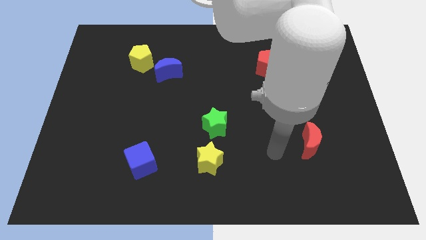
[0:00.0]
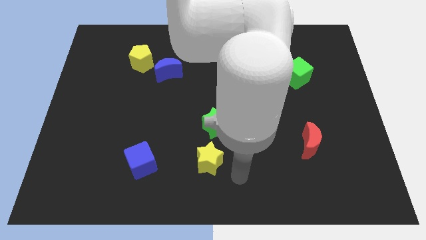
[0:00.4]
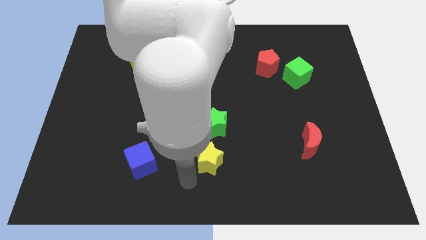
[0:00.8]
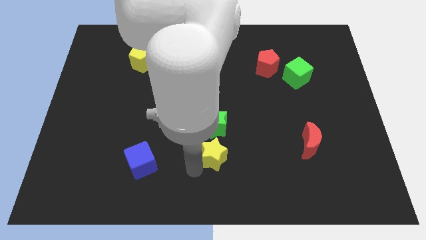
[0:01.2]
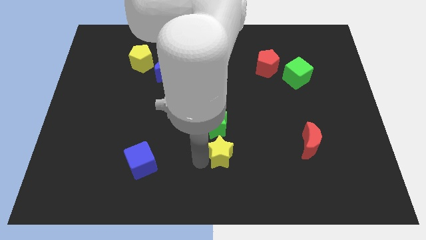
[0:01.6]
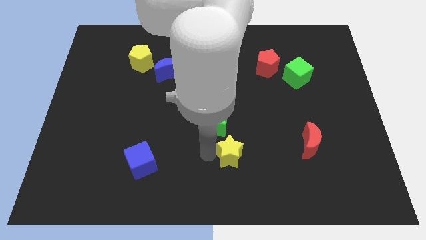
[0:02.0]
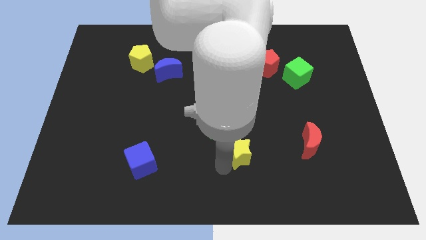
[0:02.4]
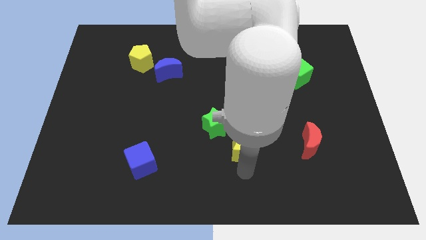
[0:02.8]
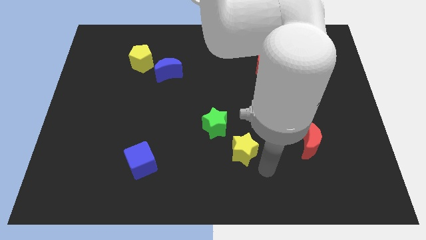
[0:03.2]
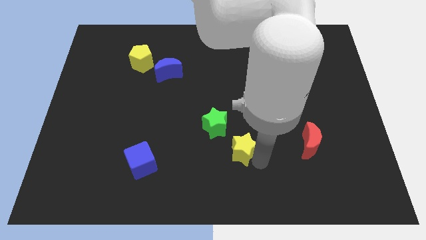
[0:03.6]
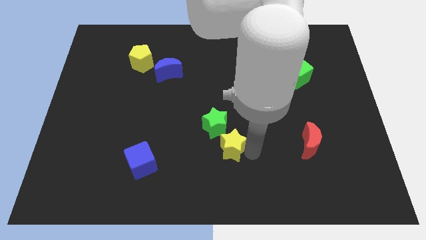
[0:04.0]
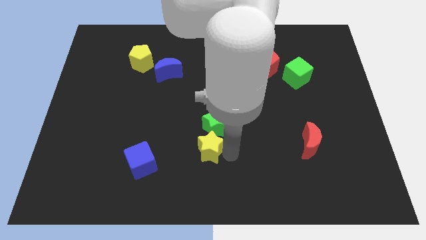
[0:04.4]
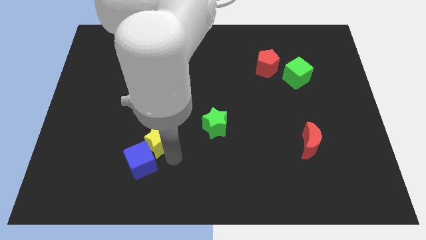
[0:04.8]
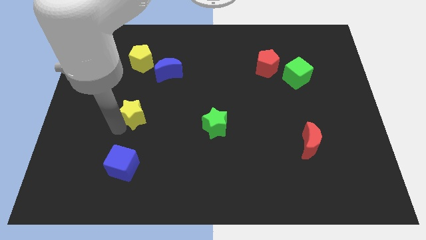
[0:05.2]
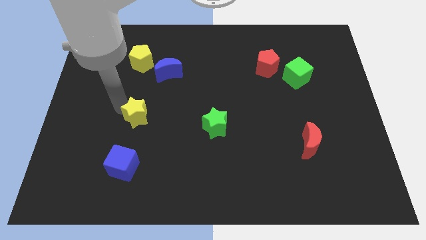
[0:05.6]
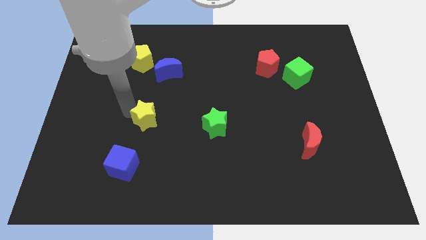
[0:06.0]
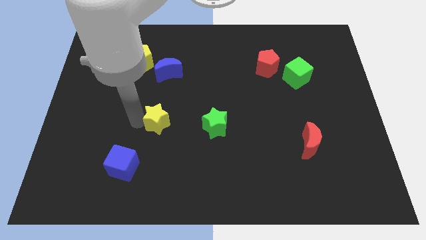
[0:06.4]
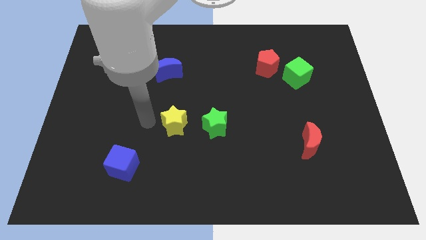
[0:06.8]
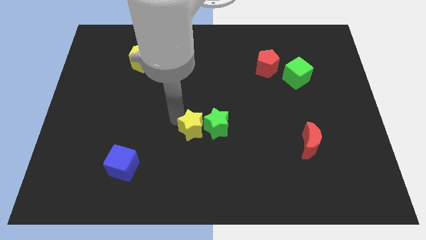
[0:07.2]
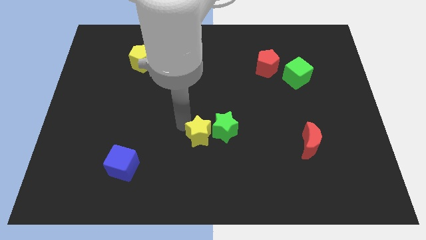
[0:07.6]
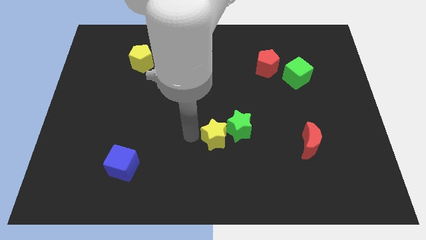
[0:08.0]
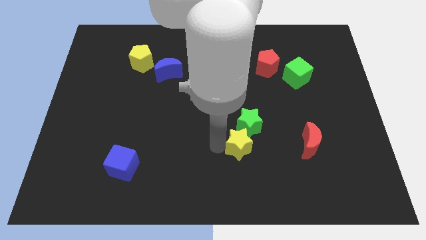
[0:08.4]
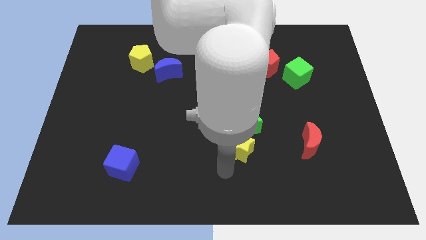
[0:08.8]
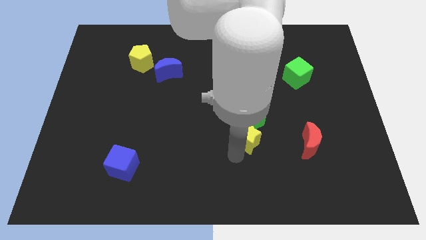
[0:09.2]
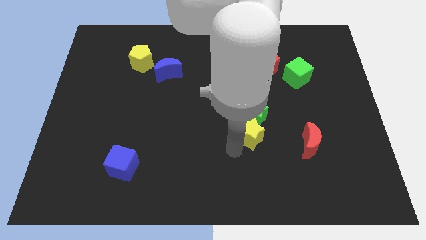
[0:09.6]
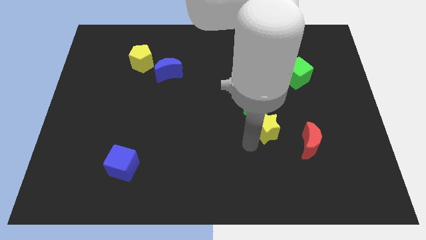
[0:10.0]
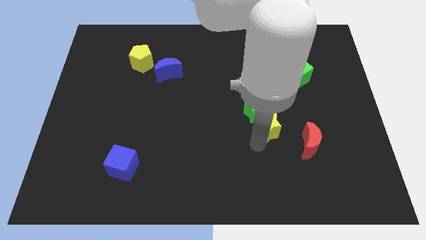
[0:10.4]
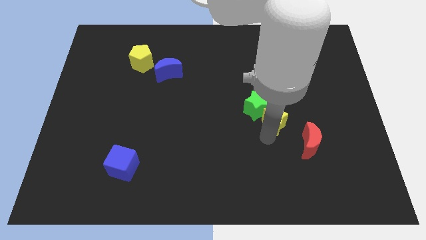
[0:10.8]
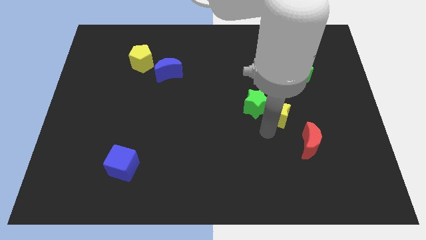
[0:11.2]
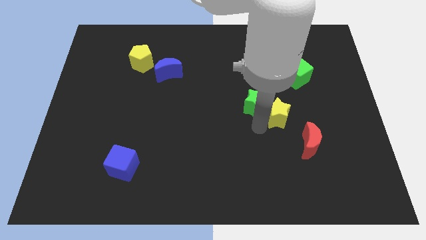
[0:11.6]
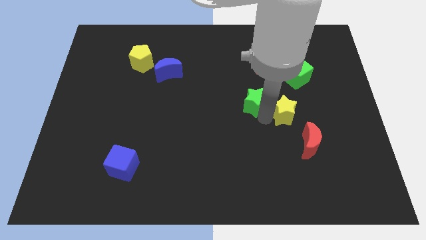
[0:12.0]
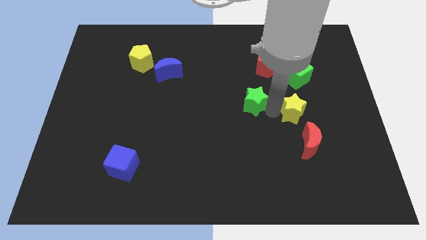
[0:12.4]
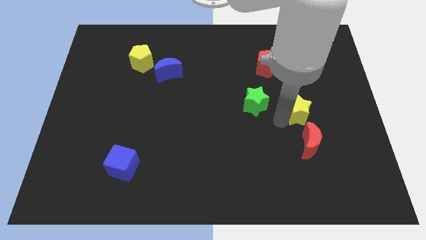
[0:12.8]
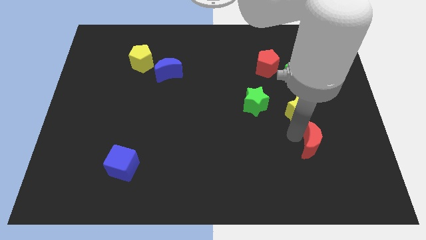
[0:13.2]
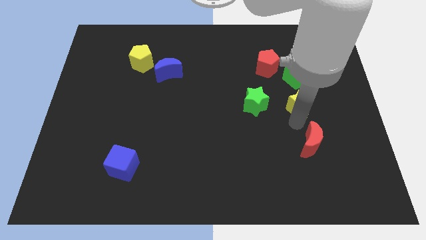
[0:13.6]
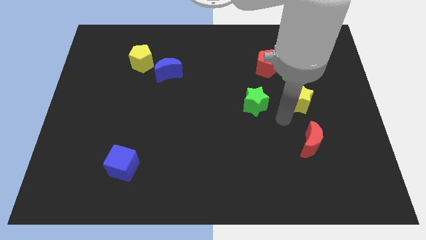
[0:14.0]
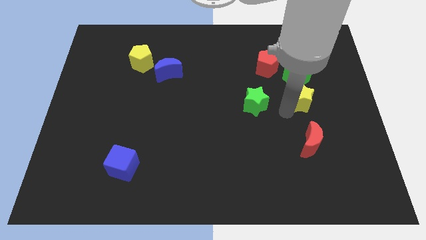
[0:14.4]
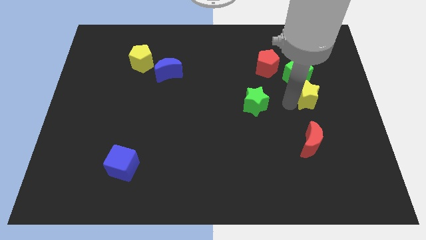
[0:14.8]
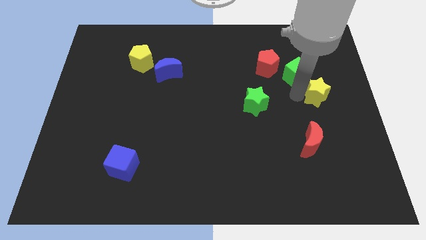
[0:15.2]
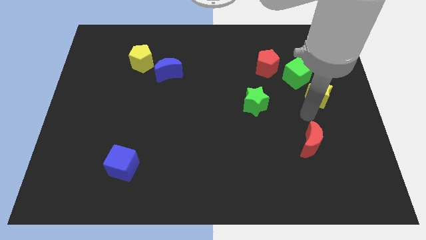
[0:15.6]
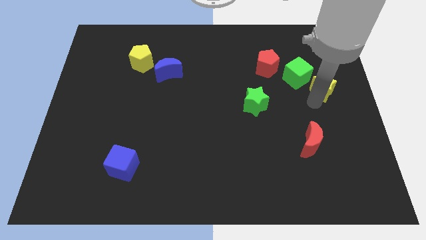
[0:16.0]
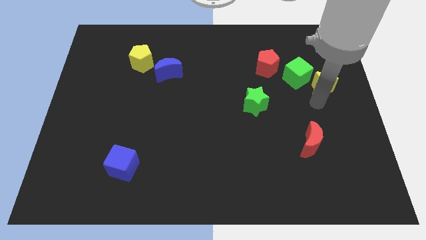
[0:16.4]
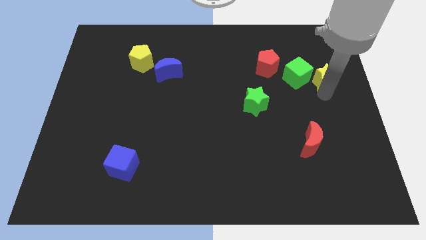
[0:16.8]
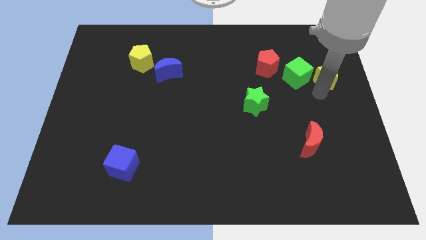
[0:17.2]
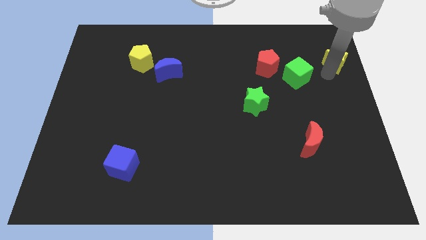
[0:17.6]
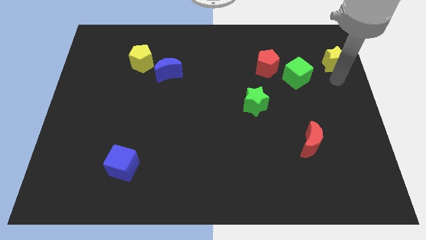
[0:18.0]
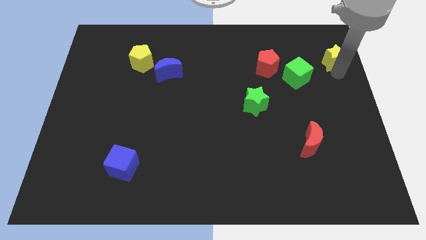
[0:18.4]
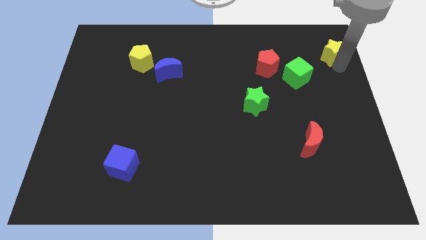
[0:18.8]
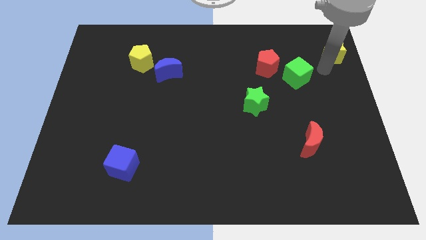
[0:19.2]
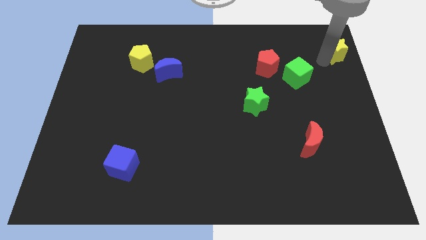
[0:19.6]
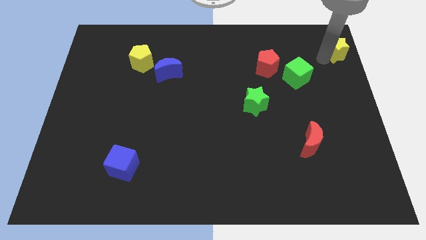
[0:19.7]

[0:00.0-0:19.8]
move the yellow star to the top right of the board

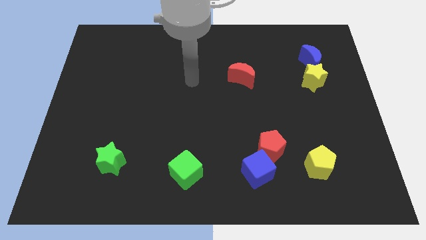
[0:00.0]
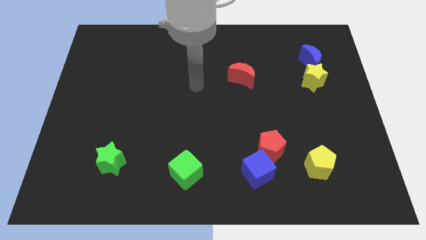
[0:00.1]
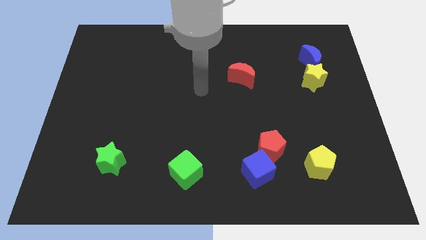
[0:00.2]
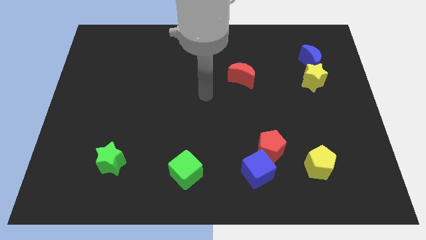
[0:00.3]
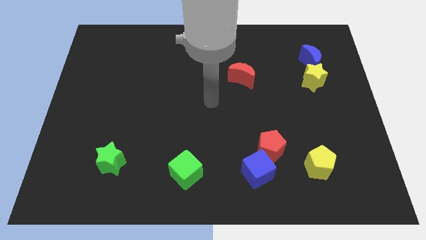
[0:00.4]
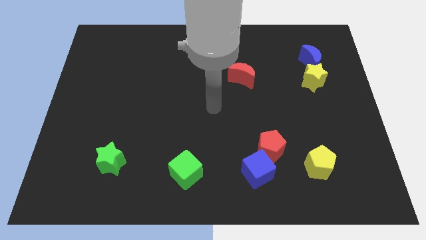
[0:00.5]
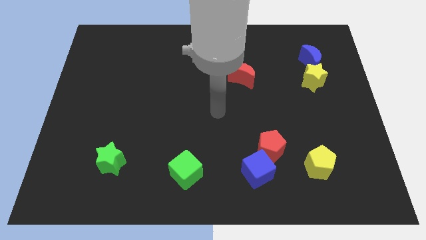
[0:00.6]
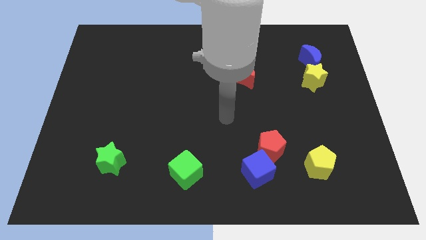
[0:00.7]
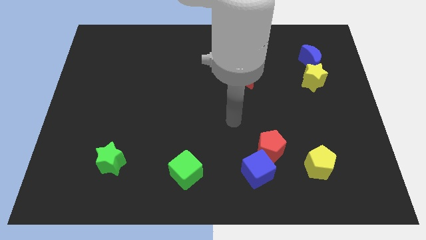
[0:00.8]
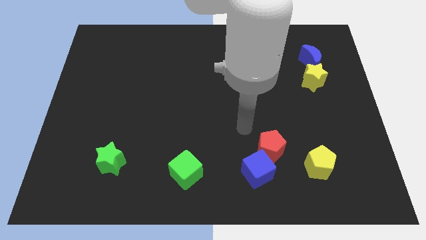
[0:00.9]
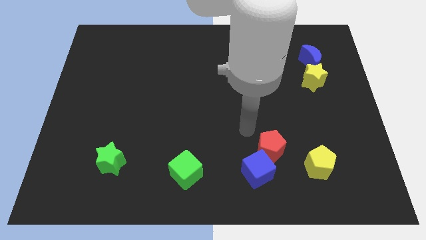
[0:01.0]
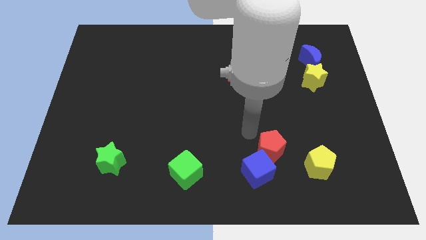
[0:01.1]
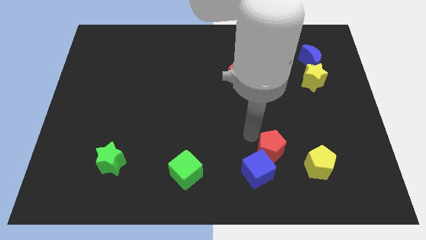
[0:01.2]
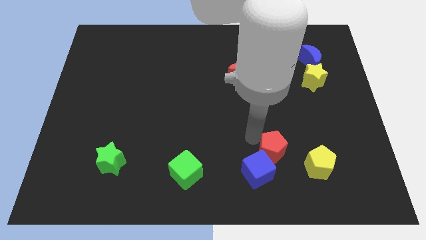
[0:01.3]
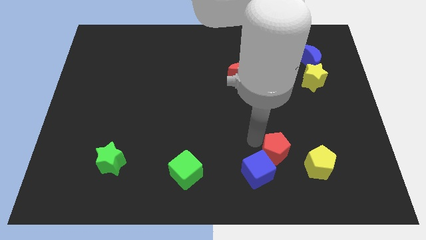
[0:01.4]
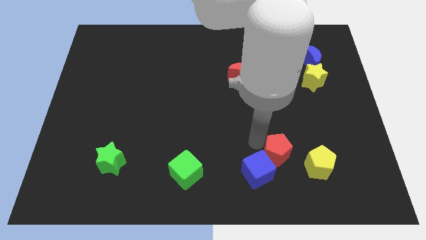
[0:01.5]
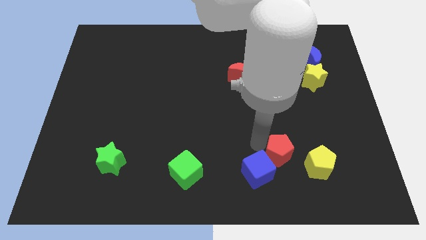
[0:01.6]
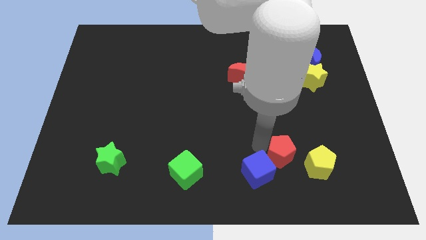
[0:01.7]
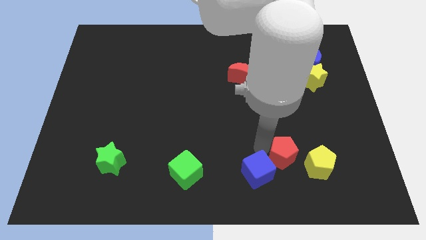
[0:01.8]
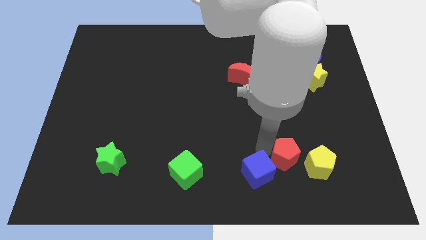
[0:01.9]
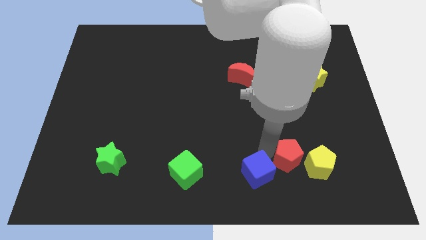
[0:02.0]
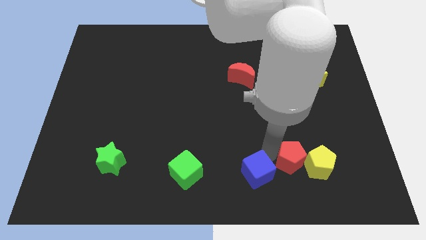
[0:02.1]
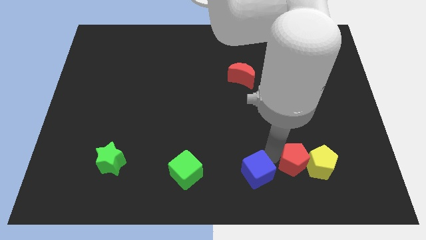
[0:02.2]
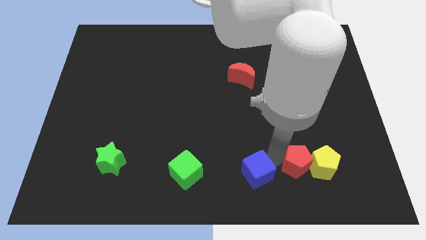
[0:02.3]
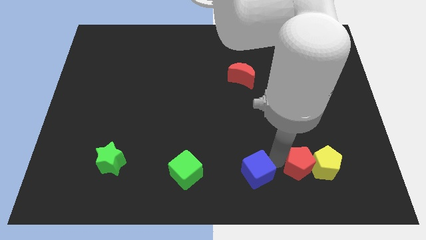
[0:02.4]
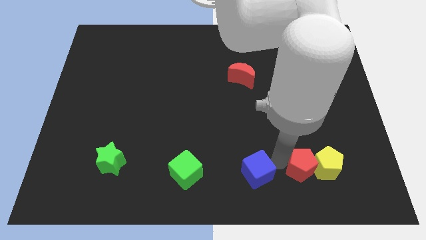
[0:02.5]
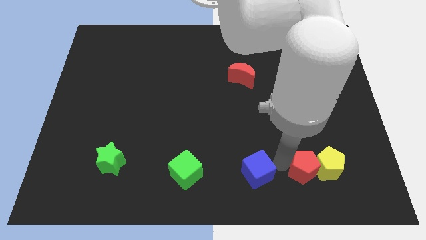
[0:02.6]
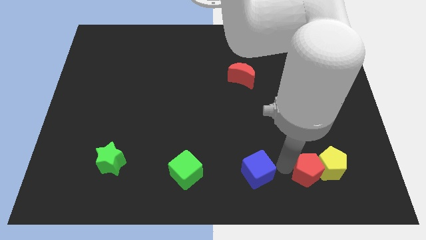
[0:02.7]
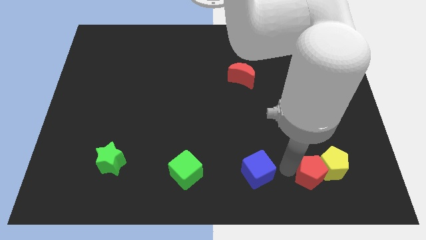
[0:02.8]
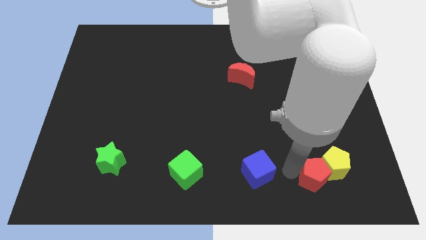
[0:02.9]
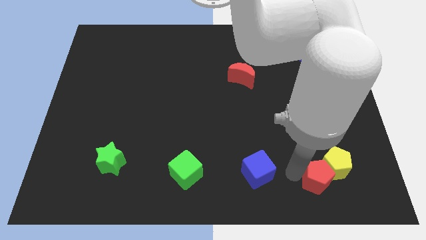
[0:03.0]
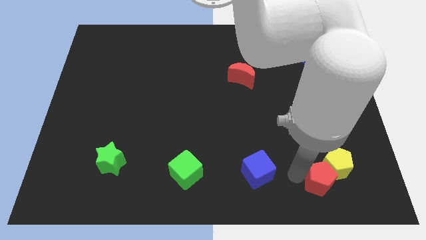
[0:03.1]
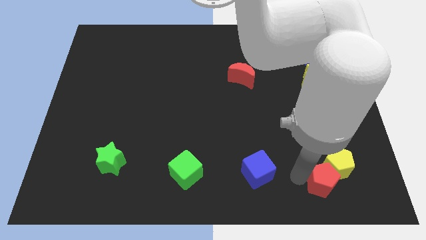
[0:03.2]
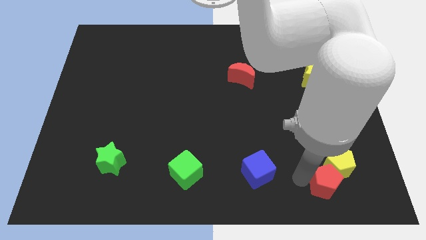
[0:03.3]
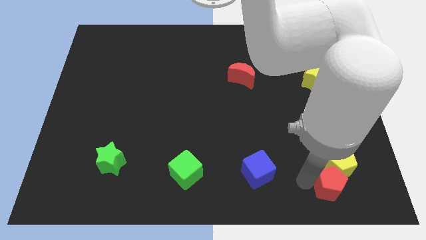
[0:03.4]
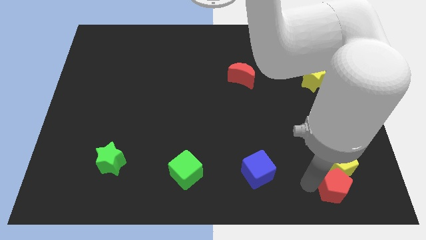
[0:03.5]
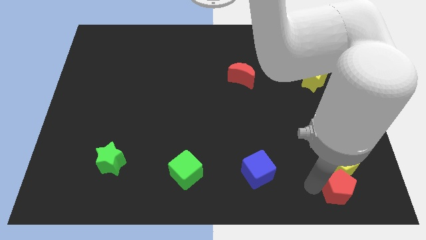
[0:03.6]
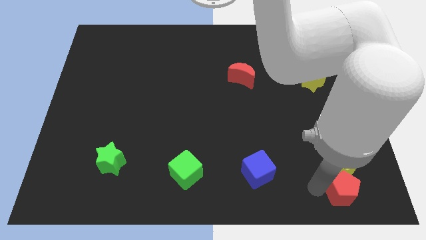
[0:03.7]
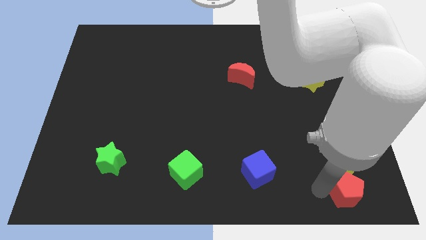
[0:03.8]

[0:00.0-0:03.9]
move the red pentagon to the bottom right
